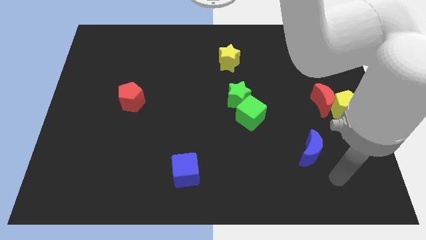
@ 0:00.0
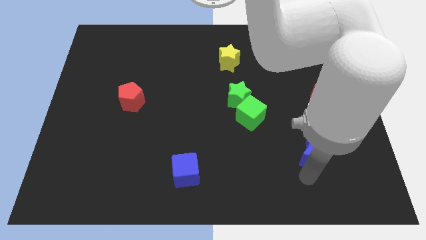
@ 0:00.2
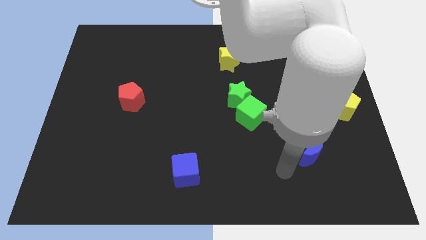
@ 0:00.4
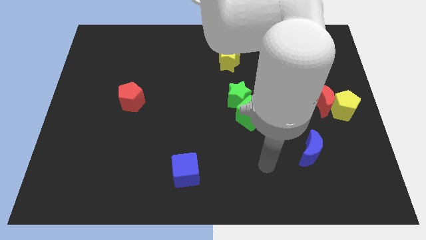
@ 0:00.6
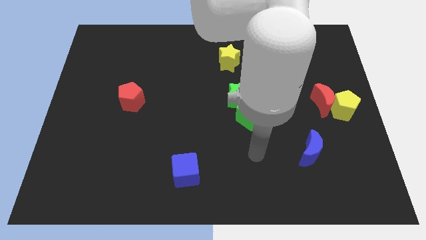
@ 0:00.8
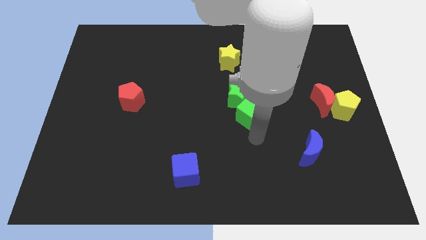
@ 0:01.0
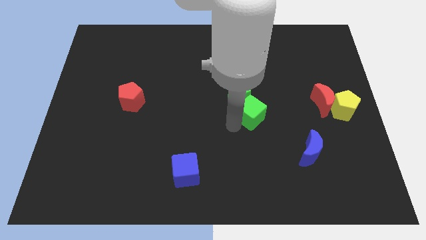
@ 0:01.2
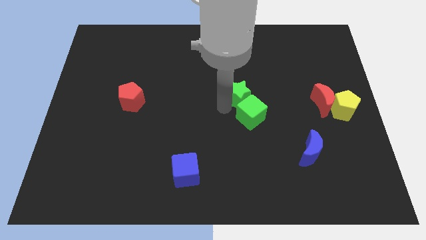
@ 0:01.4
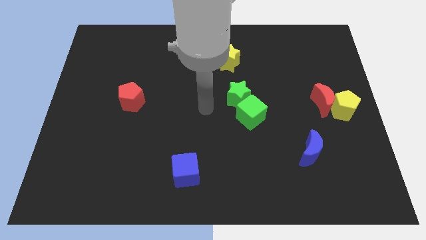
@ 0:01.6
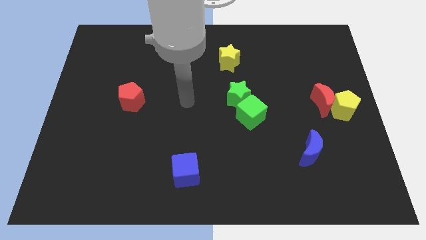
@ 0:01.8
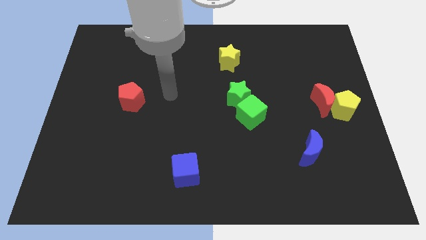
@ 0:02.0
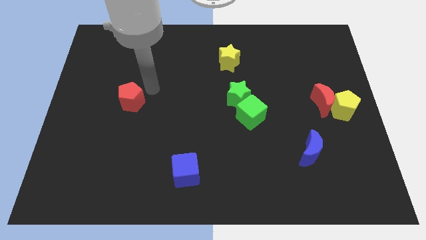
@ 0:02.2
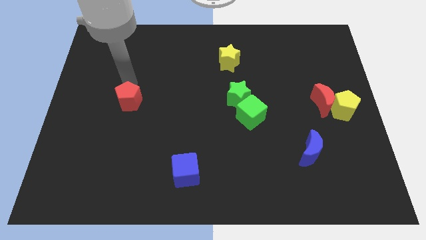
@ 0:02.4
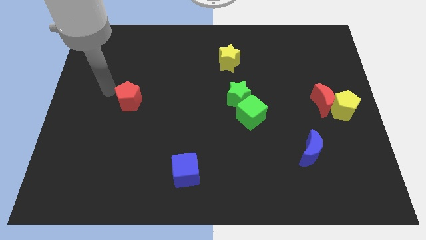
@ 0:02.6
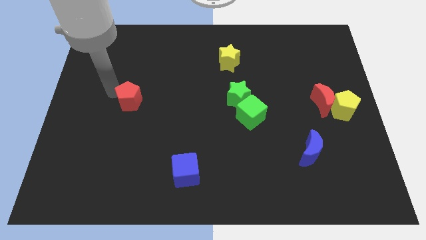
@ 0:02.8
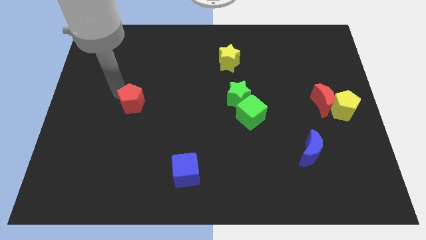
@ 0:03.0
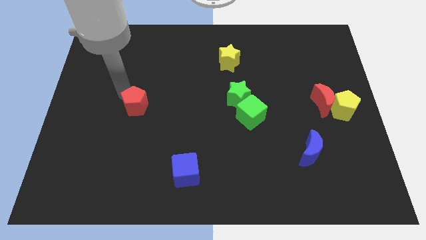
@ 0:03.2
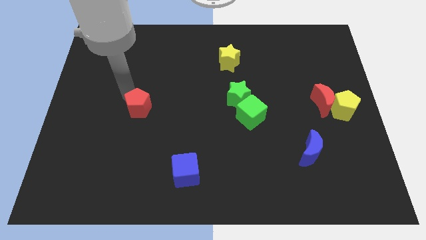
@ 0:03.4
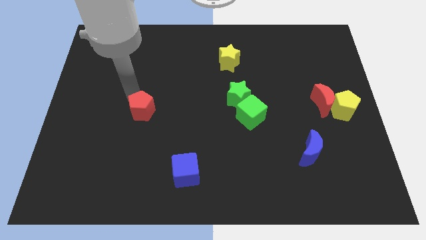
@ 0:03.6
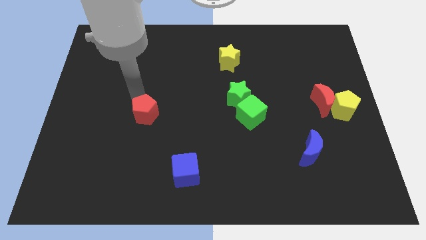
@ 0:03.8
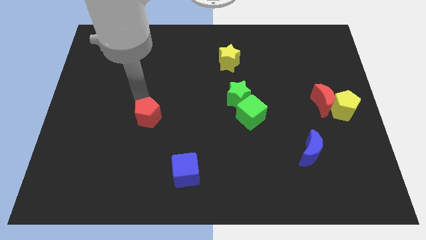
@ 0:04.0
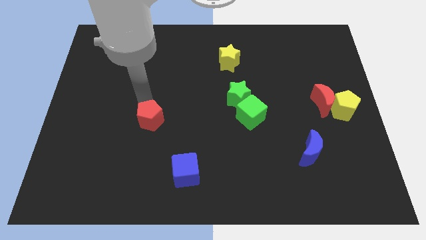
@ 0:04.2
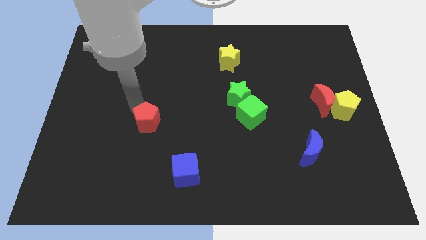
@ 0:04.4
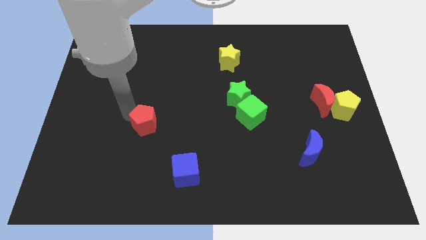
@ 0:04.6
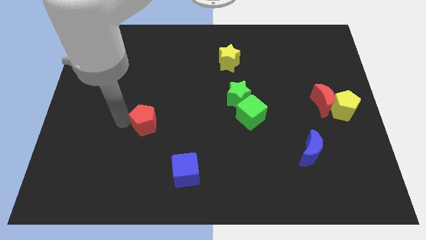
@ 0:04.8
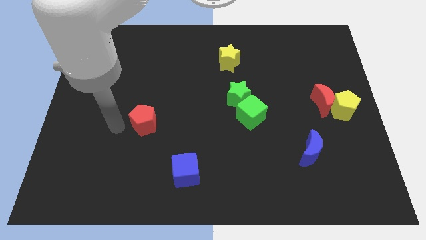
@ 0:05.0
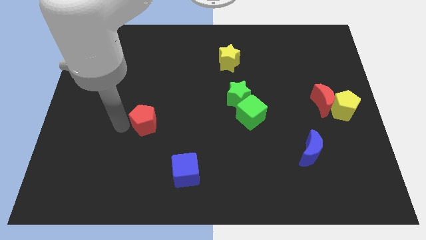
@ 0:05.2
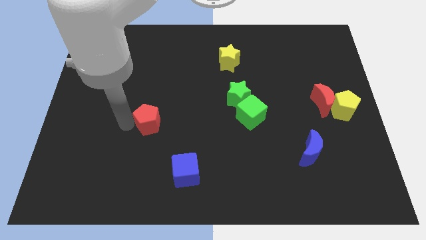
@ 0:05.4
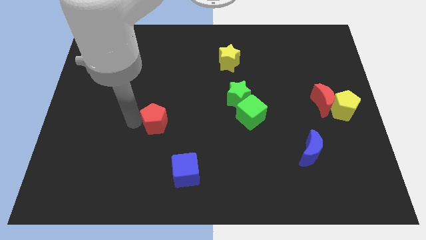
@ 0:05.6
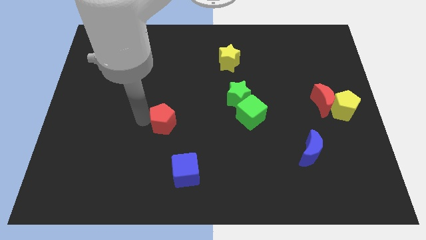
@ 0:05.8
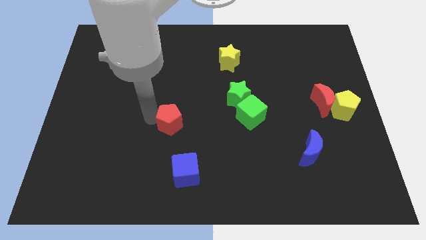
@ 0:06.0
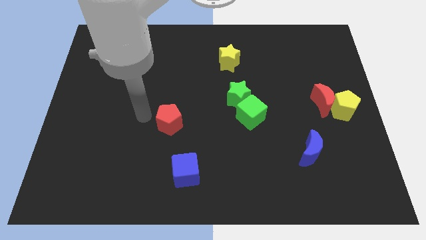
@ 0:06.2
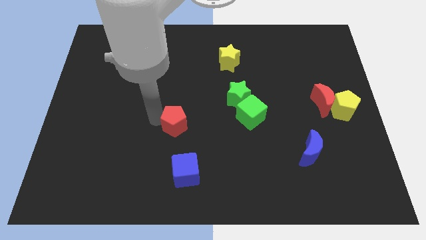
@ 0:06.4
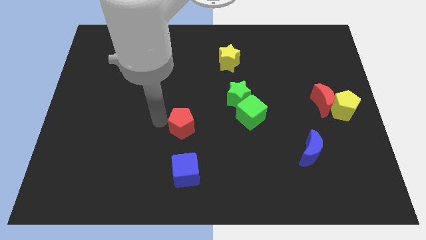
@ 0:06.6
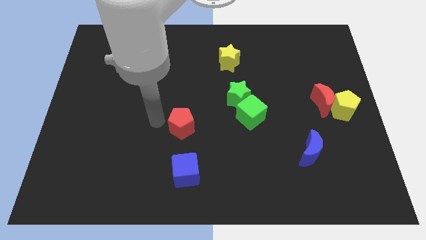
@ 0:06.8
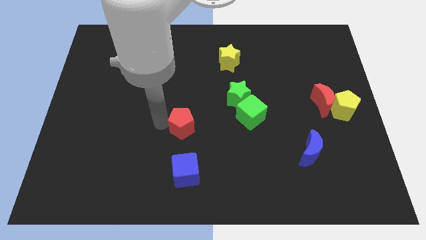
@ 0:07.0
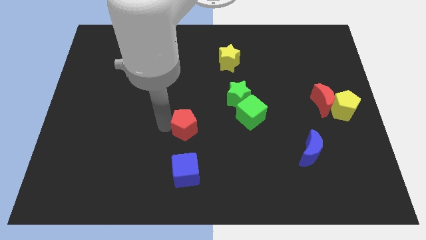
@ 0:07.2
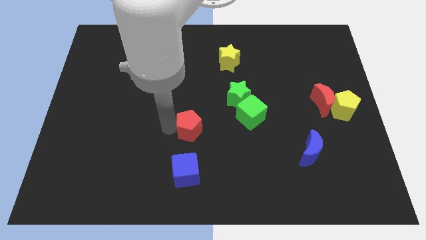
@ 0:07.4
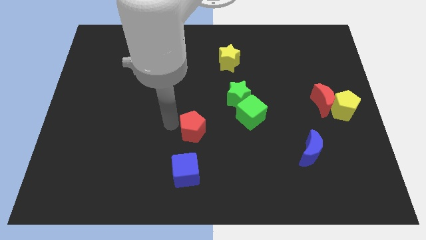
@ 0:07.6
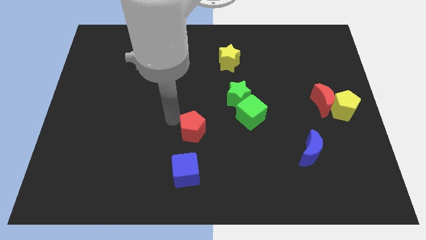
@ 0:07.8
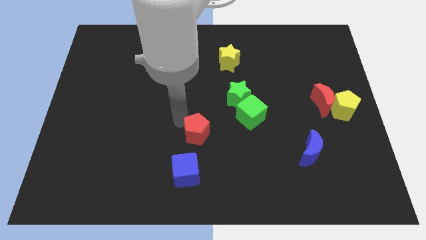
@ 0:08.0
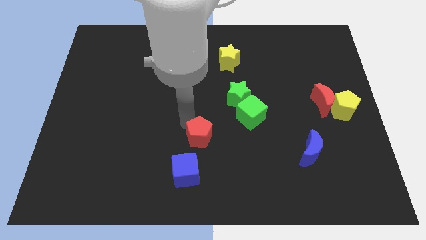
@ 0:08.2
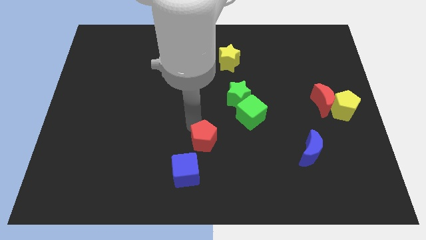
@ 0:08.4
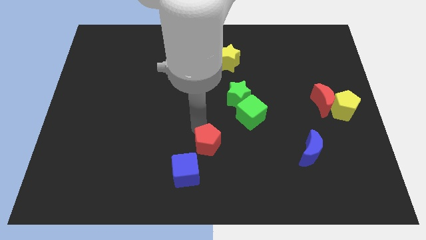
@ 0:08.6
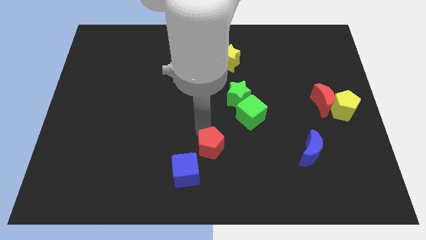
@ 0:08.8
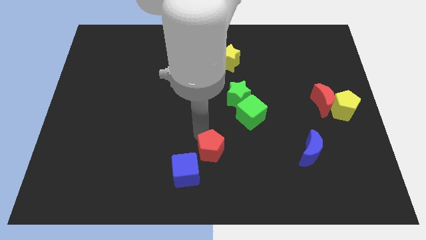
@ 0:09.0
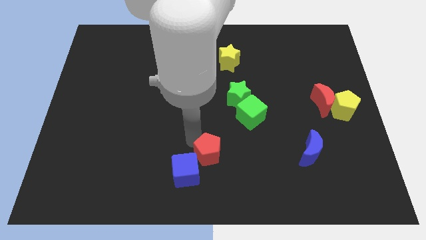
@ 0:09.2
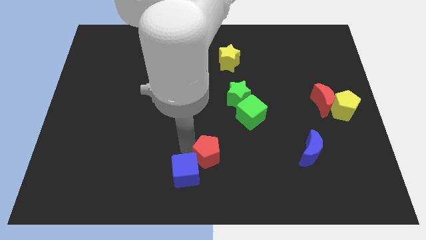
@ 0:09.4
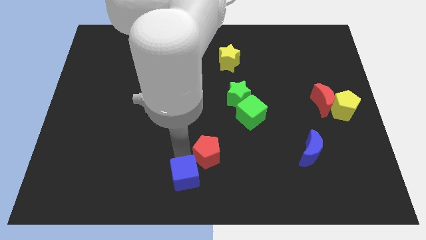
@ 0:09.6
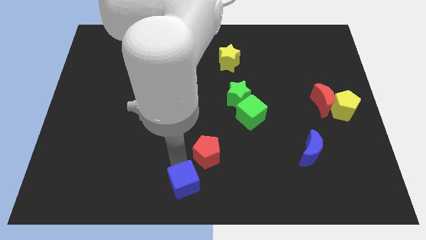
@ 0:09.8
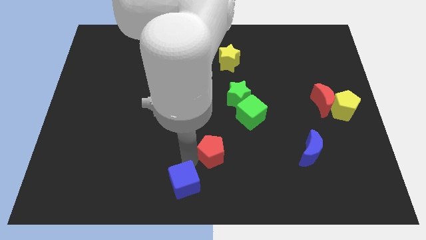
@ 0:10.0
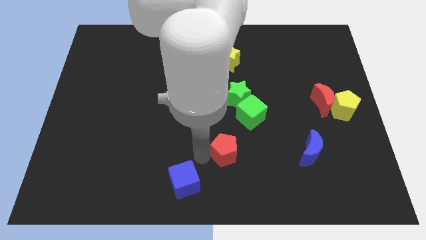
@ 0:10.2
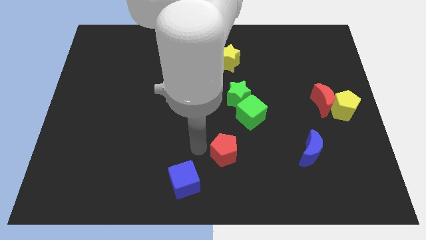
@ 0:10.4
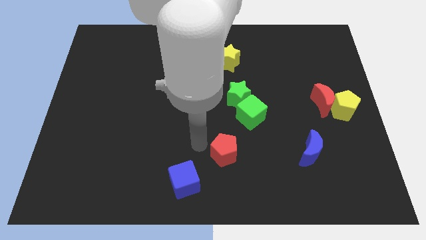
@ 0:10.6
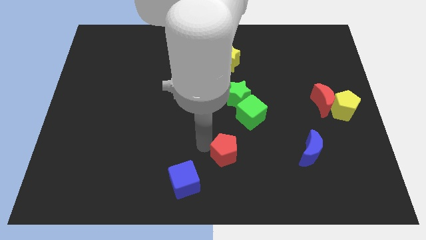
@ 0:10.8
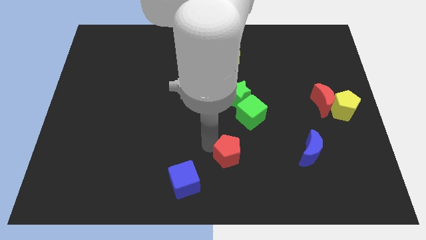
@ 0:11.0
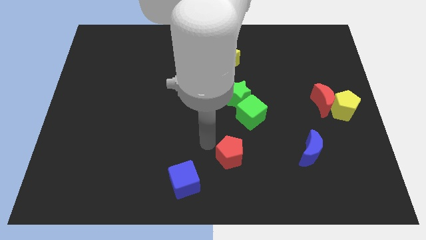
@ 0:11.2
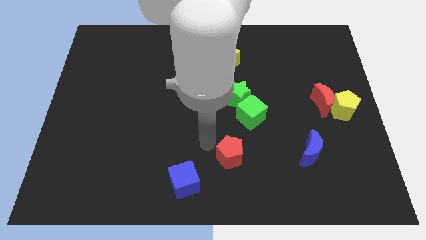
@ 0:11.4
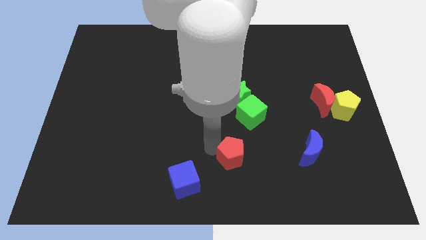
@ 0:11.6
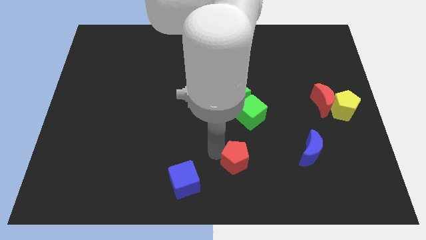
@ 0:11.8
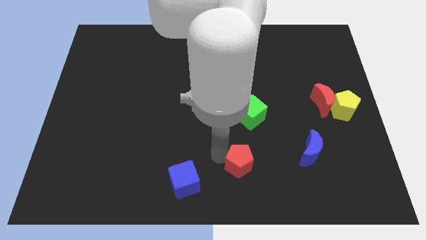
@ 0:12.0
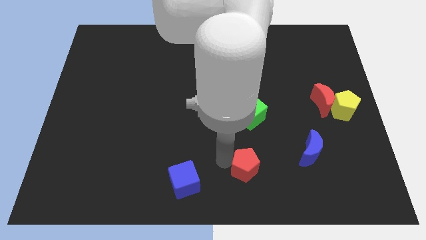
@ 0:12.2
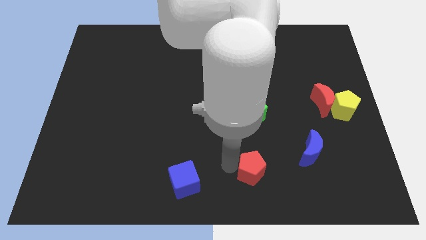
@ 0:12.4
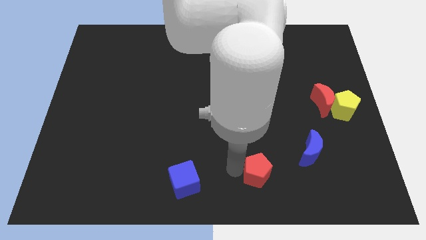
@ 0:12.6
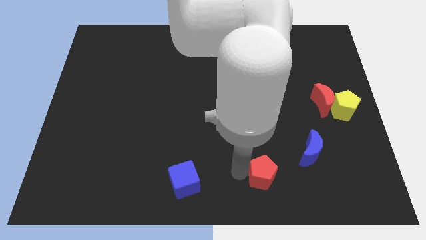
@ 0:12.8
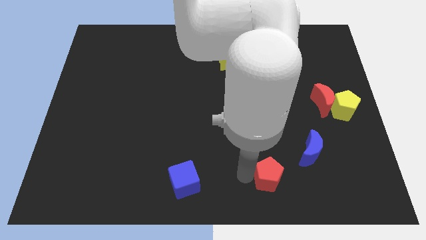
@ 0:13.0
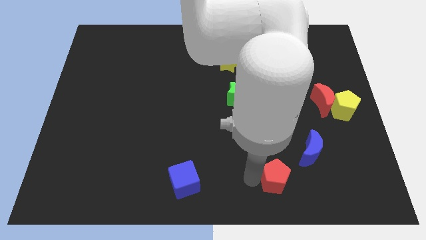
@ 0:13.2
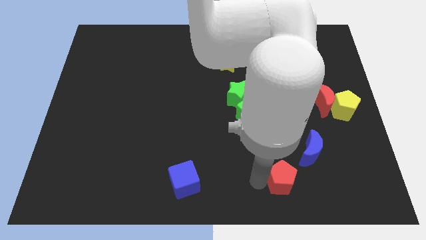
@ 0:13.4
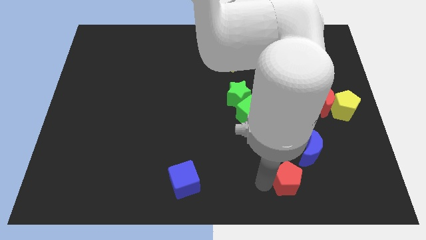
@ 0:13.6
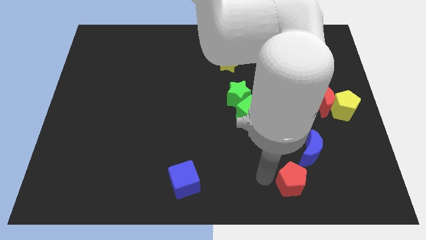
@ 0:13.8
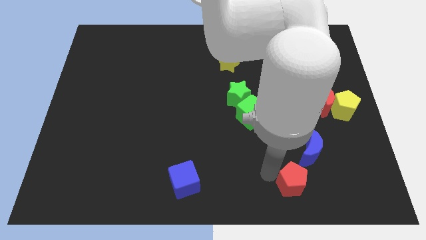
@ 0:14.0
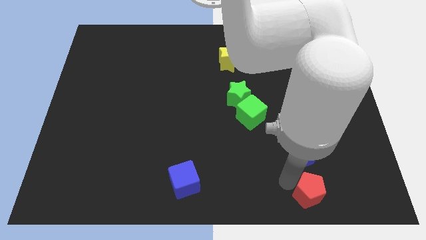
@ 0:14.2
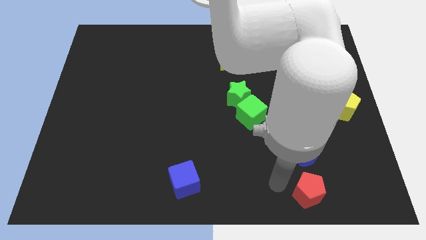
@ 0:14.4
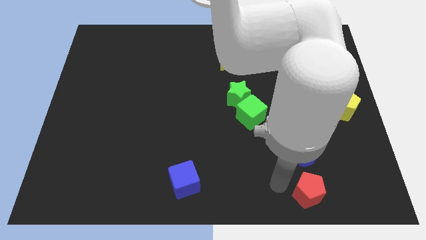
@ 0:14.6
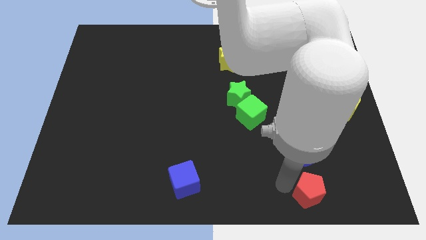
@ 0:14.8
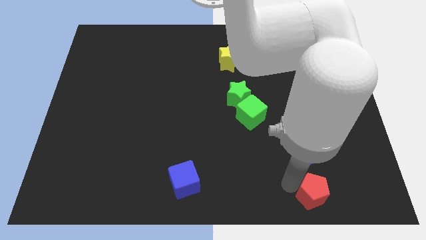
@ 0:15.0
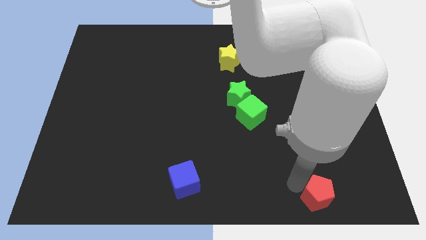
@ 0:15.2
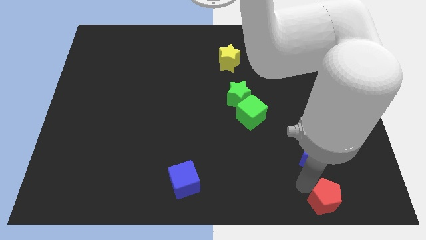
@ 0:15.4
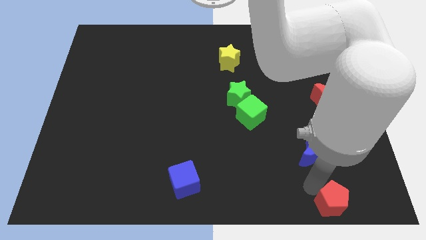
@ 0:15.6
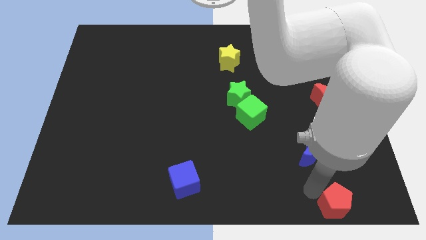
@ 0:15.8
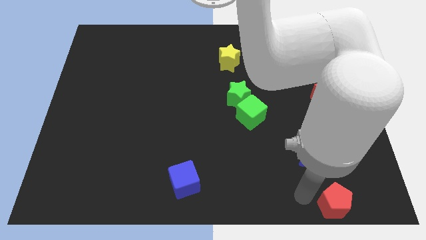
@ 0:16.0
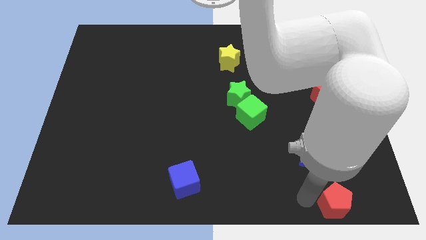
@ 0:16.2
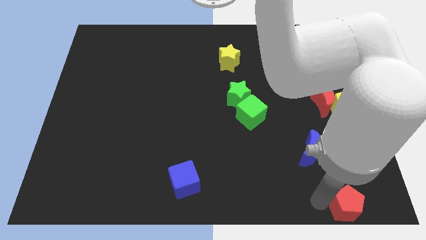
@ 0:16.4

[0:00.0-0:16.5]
move the red pentagon to the bottom right corner
